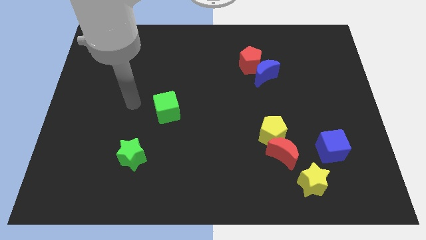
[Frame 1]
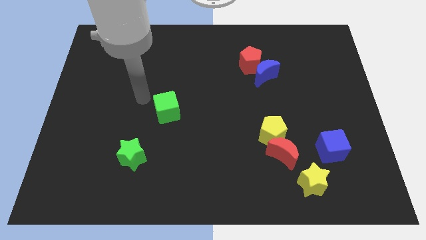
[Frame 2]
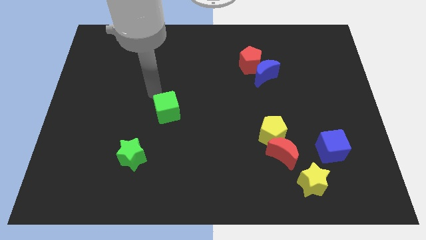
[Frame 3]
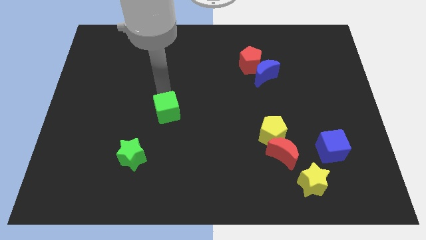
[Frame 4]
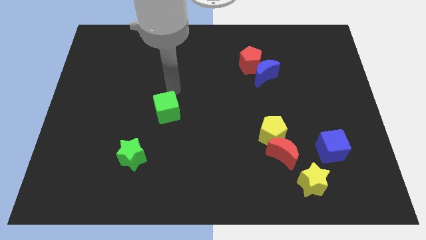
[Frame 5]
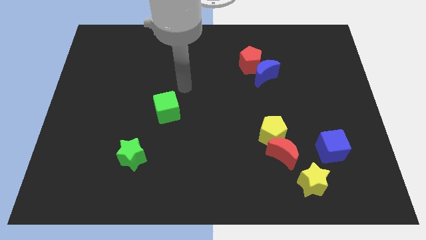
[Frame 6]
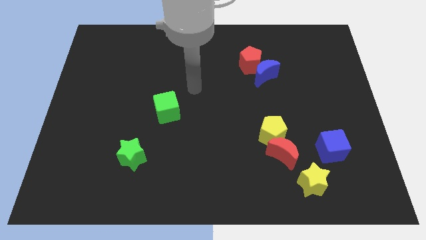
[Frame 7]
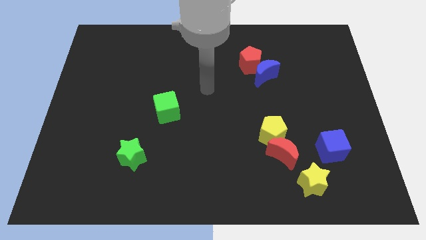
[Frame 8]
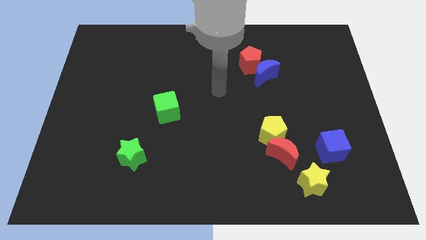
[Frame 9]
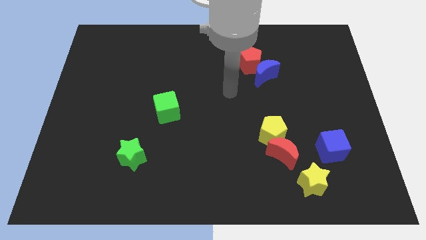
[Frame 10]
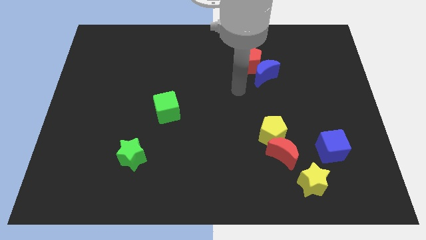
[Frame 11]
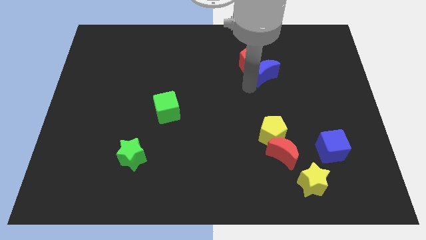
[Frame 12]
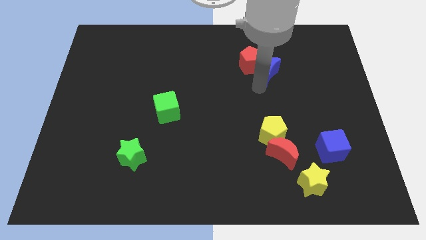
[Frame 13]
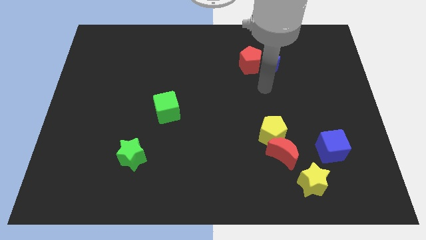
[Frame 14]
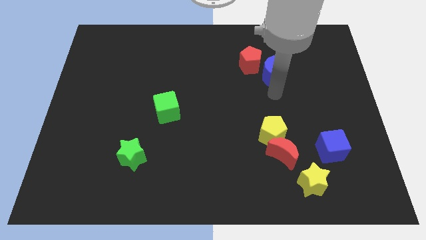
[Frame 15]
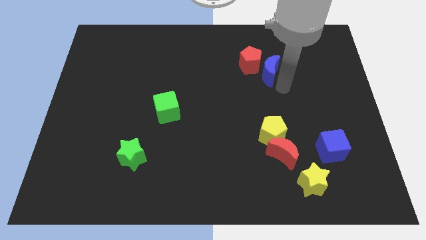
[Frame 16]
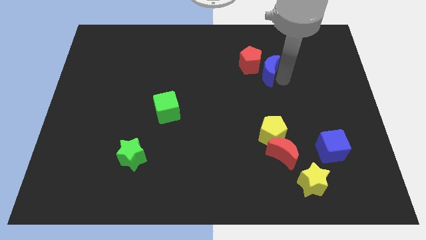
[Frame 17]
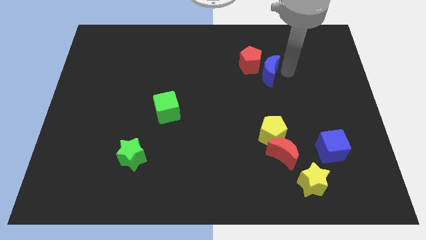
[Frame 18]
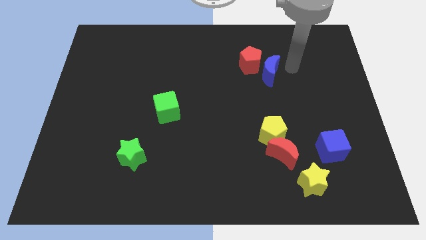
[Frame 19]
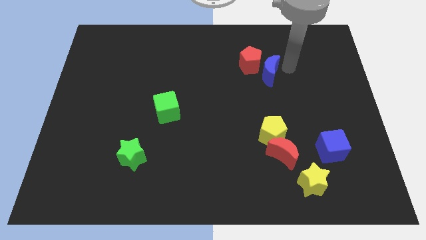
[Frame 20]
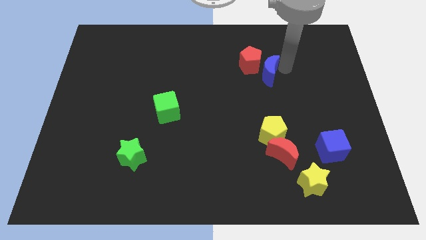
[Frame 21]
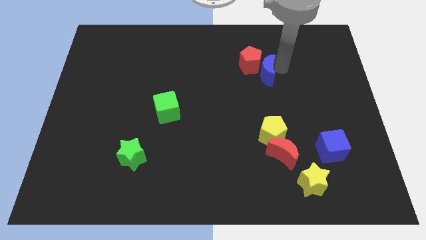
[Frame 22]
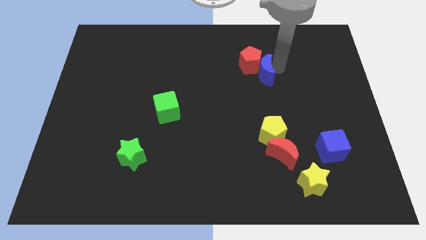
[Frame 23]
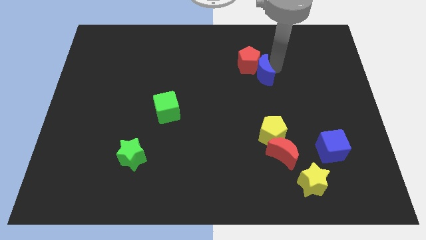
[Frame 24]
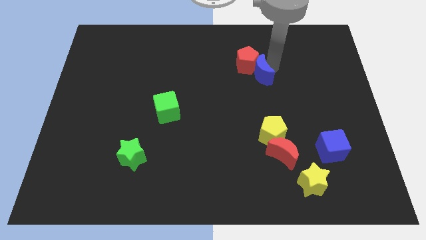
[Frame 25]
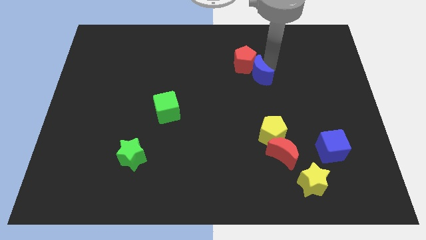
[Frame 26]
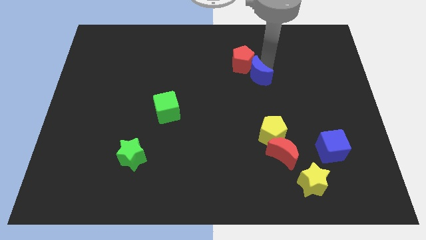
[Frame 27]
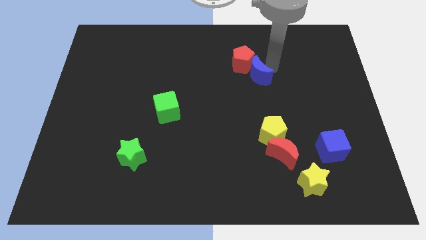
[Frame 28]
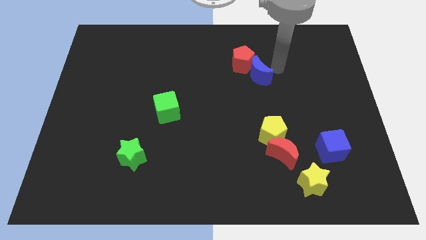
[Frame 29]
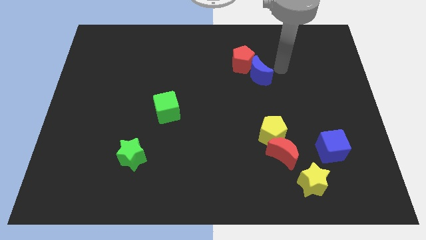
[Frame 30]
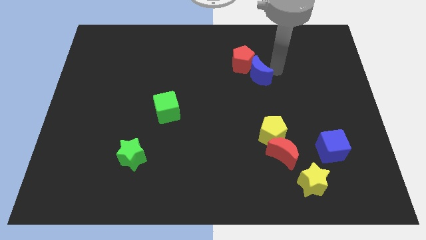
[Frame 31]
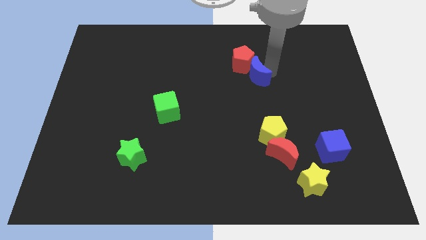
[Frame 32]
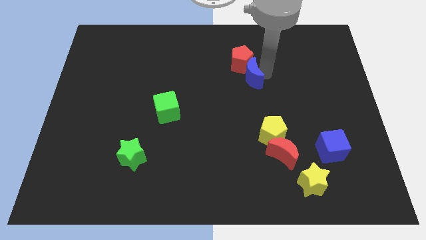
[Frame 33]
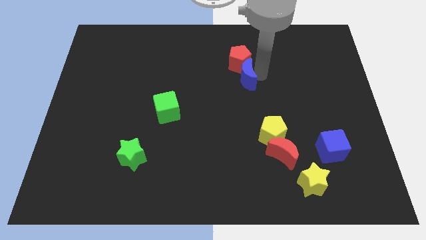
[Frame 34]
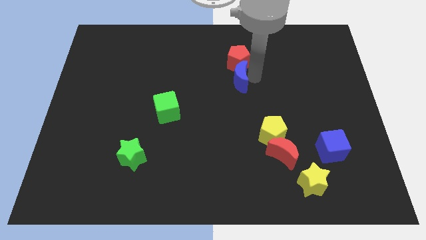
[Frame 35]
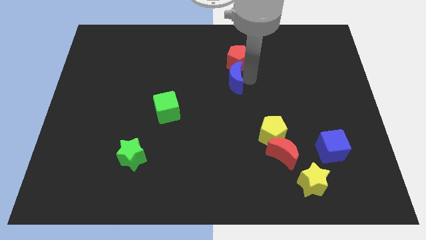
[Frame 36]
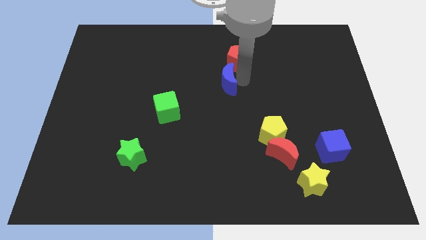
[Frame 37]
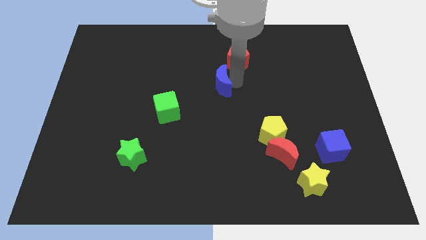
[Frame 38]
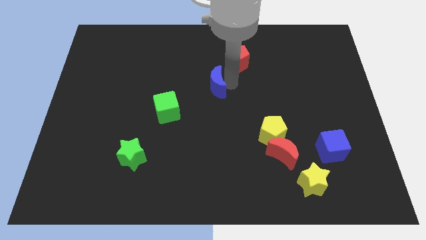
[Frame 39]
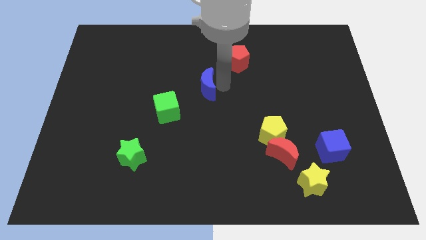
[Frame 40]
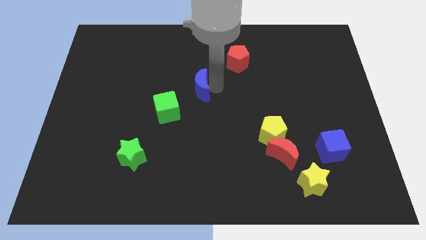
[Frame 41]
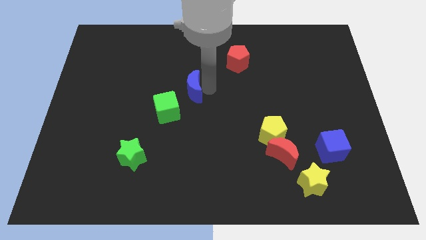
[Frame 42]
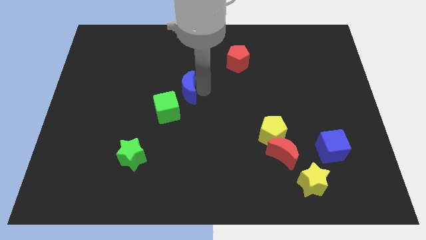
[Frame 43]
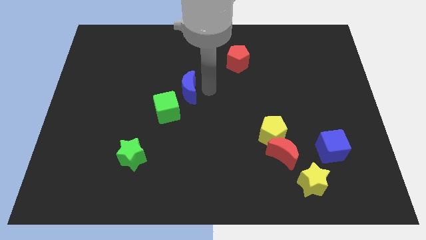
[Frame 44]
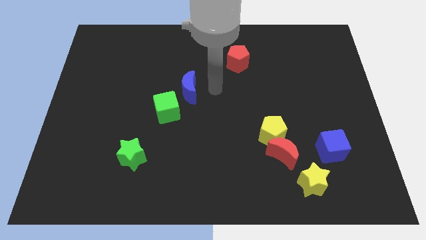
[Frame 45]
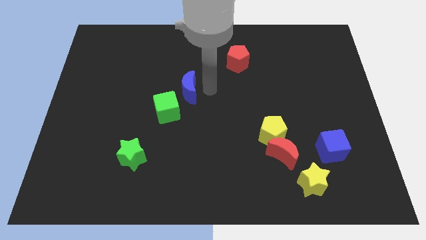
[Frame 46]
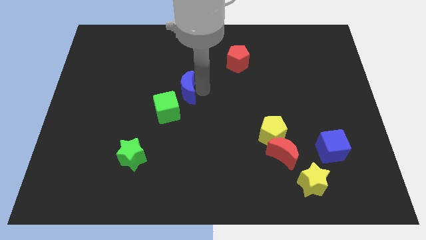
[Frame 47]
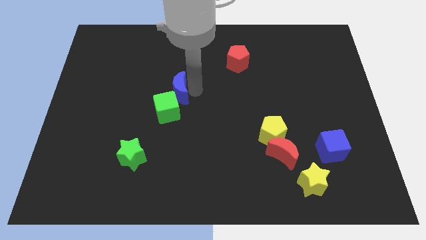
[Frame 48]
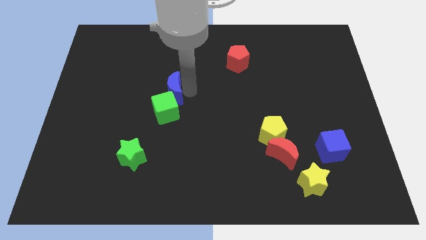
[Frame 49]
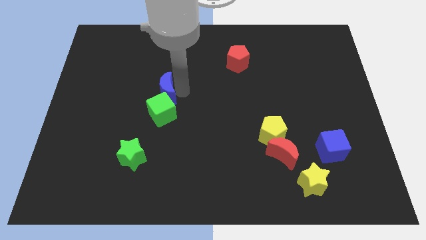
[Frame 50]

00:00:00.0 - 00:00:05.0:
put the blue moon to the top left side of the green cube

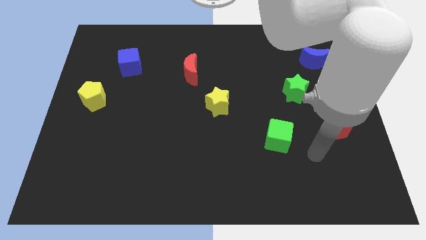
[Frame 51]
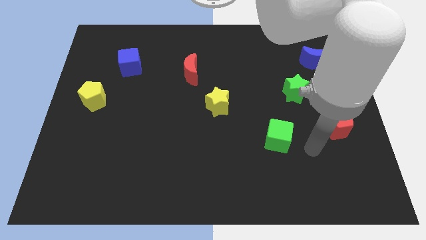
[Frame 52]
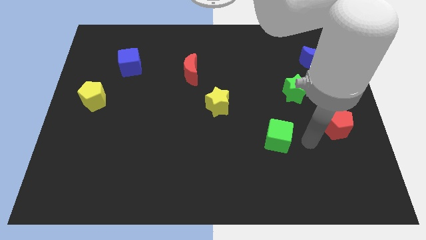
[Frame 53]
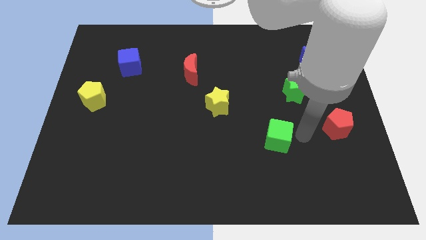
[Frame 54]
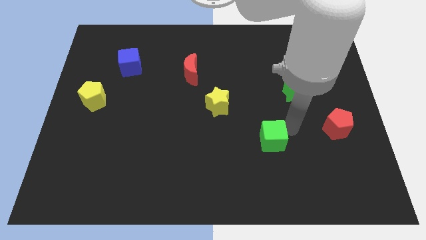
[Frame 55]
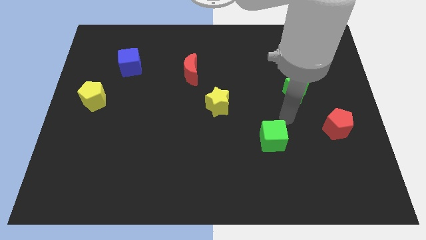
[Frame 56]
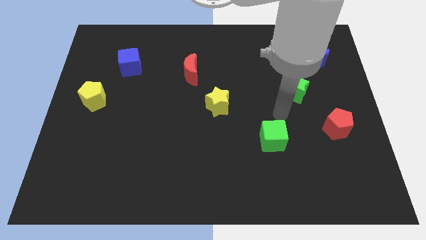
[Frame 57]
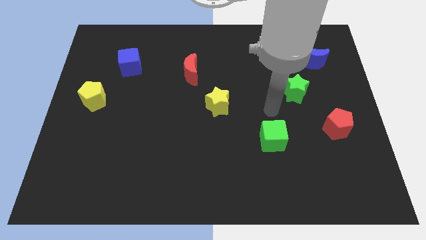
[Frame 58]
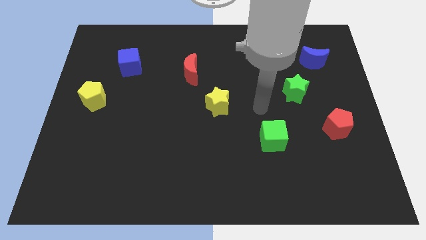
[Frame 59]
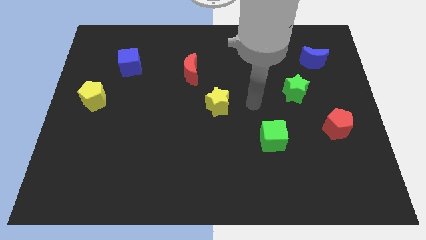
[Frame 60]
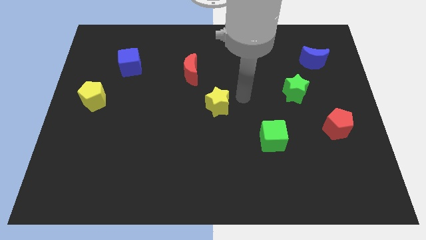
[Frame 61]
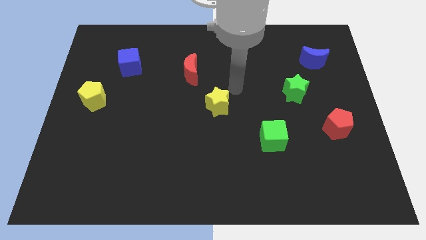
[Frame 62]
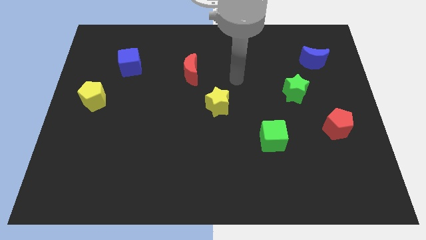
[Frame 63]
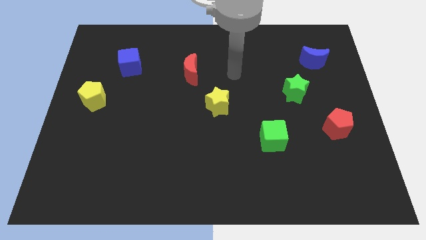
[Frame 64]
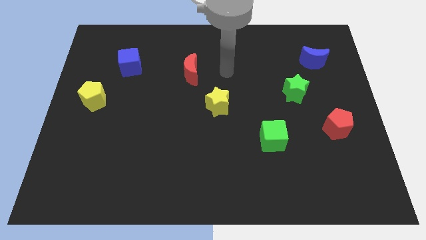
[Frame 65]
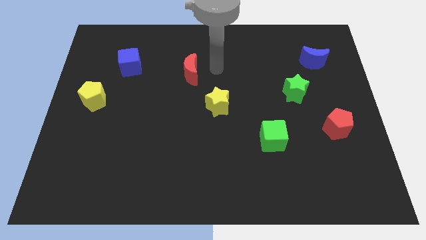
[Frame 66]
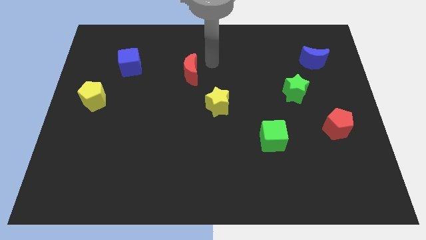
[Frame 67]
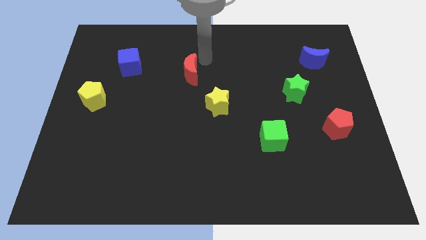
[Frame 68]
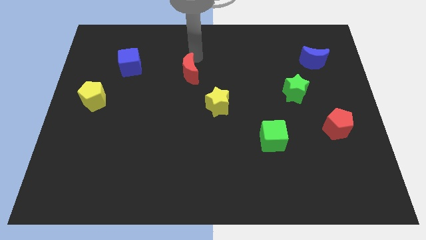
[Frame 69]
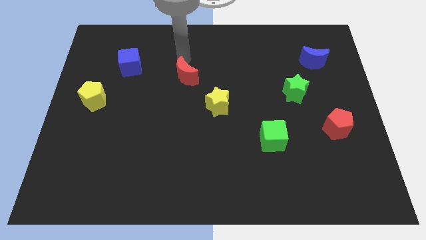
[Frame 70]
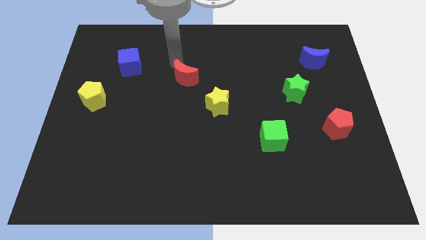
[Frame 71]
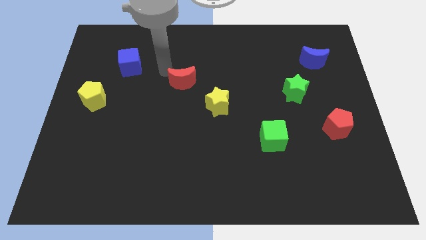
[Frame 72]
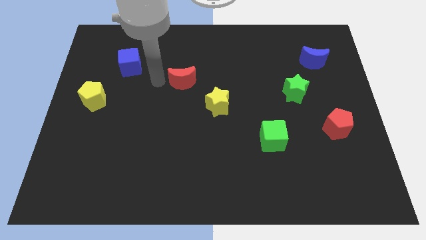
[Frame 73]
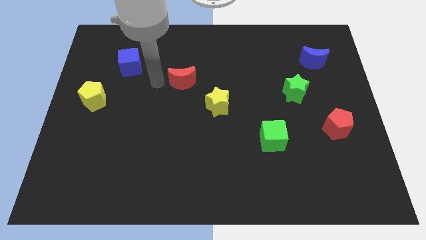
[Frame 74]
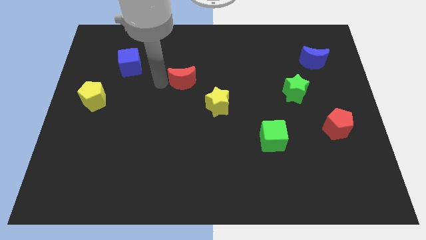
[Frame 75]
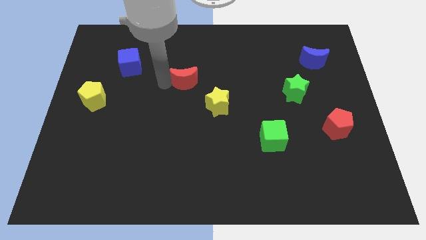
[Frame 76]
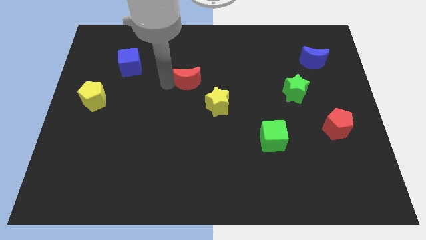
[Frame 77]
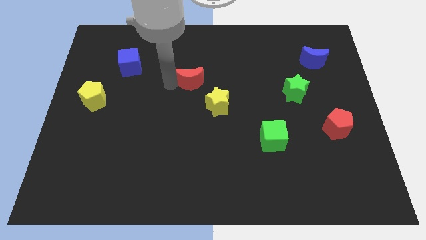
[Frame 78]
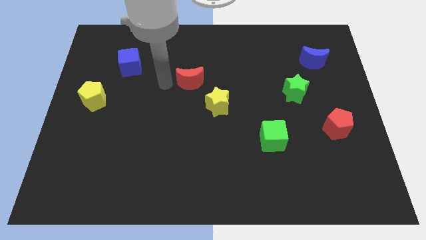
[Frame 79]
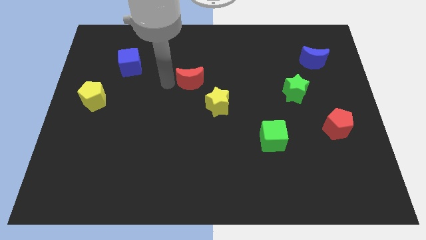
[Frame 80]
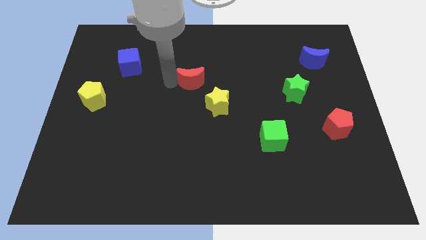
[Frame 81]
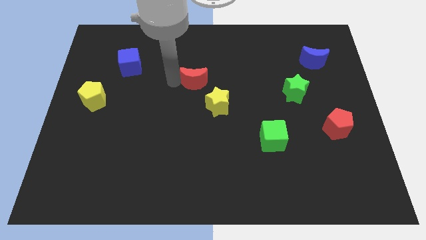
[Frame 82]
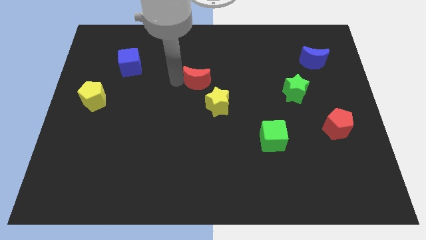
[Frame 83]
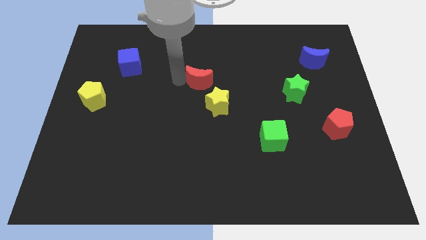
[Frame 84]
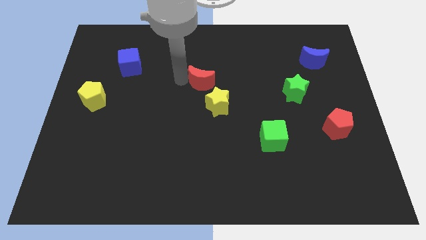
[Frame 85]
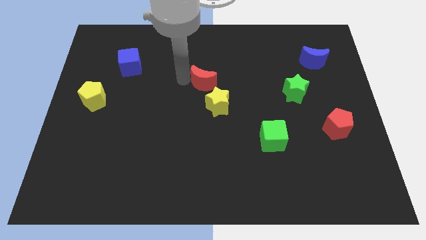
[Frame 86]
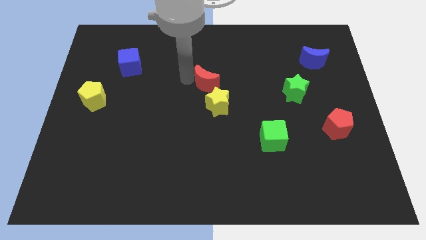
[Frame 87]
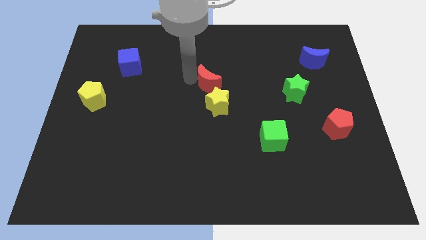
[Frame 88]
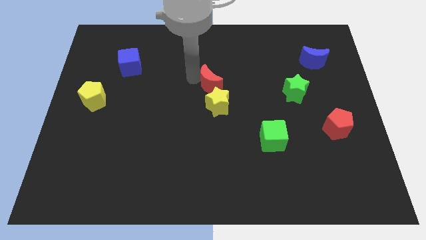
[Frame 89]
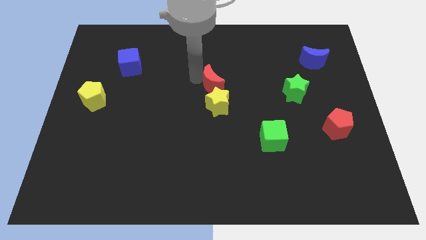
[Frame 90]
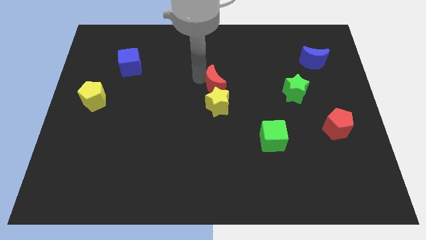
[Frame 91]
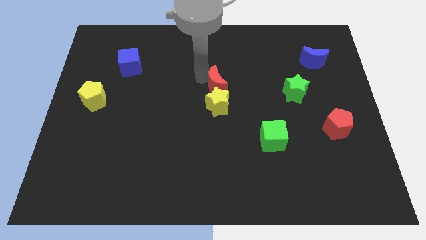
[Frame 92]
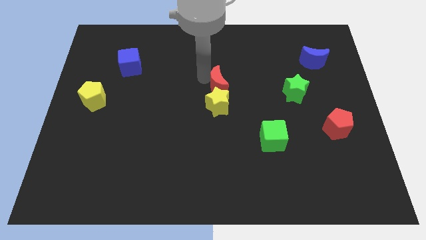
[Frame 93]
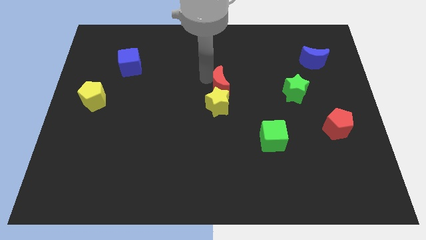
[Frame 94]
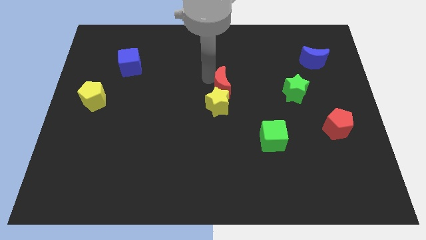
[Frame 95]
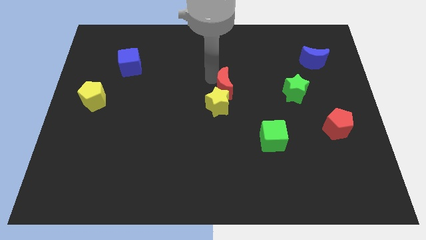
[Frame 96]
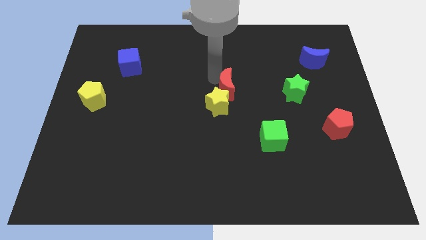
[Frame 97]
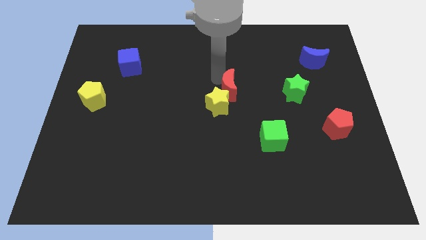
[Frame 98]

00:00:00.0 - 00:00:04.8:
put the red moon left of the green star
